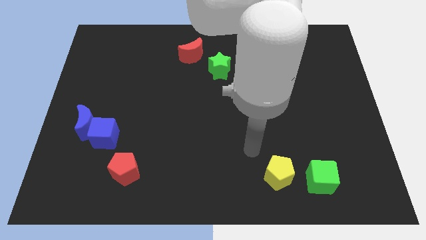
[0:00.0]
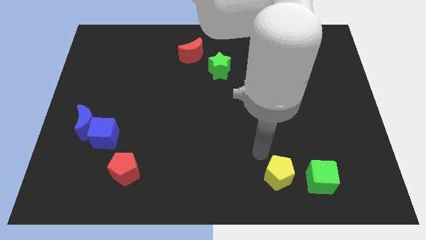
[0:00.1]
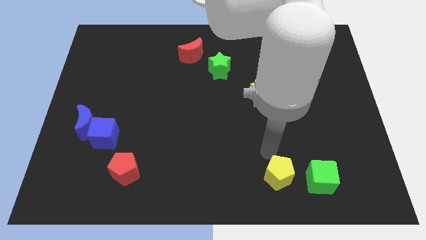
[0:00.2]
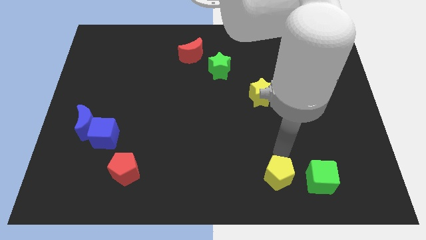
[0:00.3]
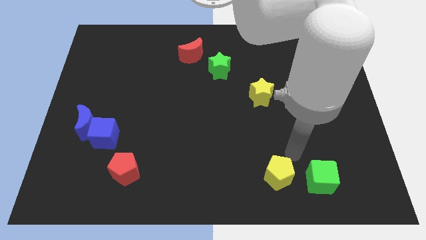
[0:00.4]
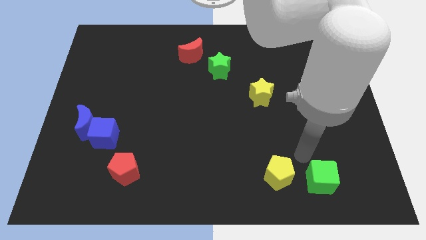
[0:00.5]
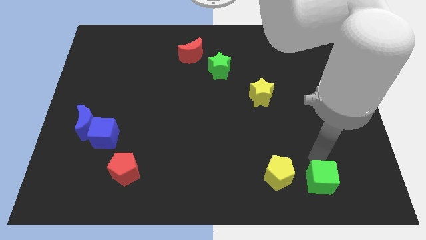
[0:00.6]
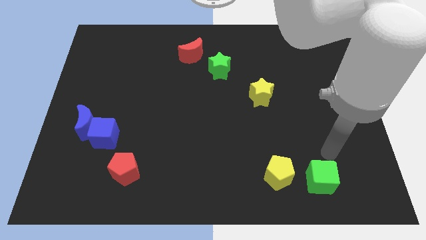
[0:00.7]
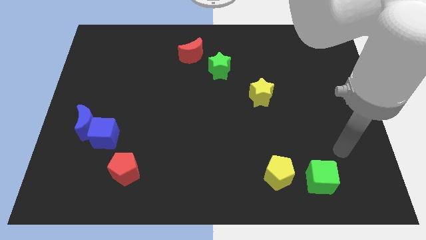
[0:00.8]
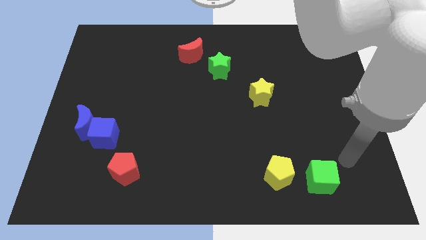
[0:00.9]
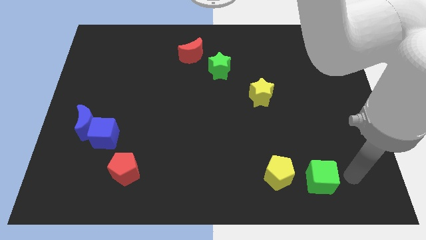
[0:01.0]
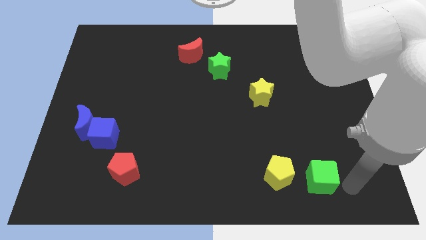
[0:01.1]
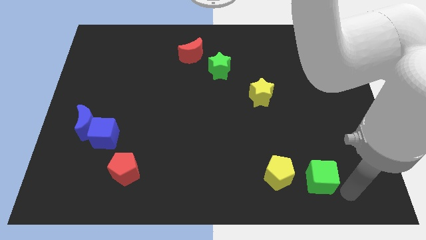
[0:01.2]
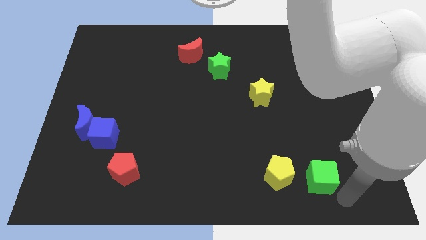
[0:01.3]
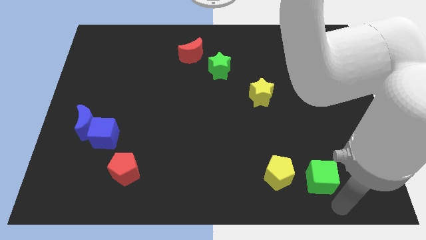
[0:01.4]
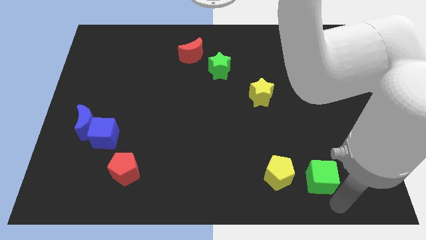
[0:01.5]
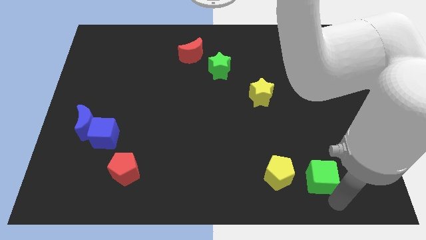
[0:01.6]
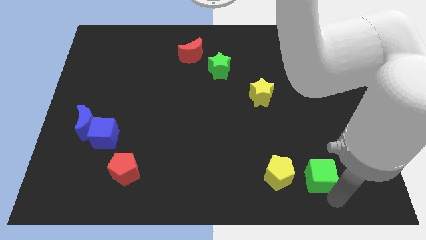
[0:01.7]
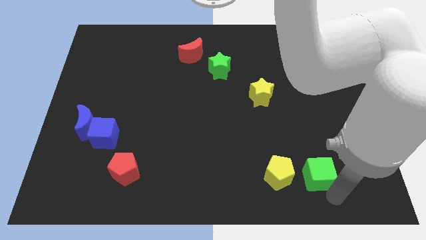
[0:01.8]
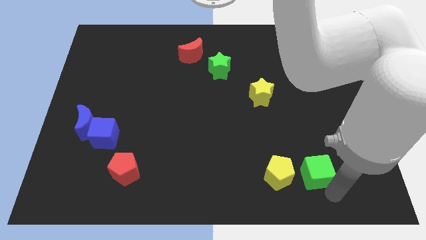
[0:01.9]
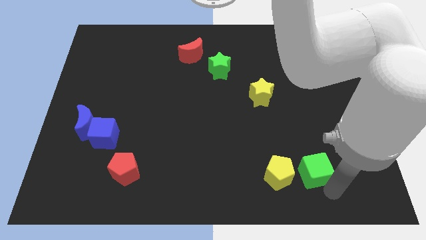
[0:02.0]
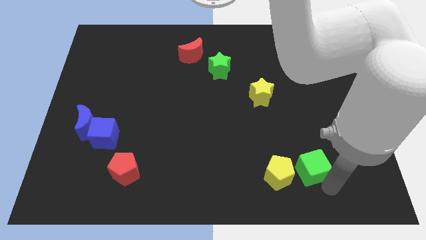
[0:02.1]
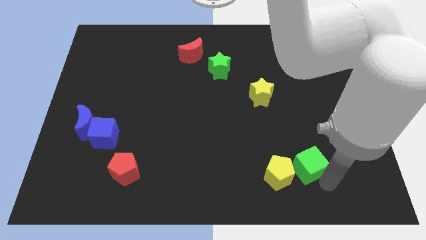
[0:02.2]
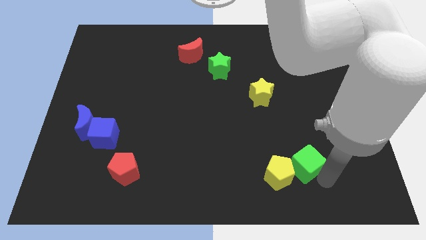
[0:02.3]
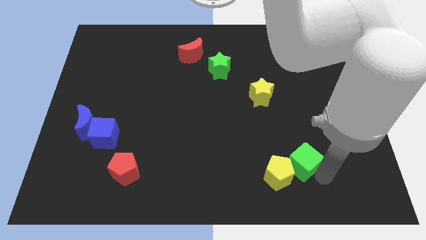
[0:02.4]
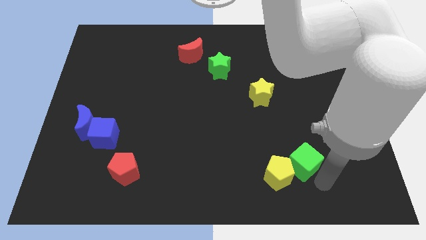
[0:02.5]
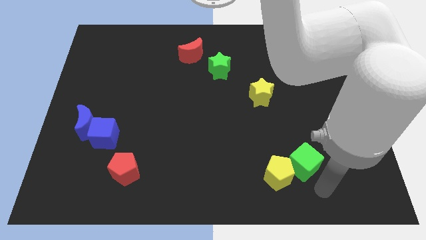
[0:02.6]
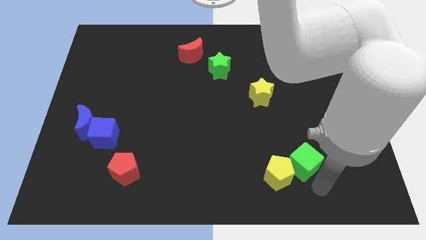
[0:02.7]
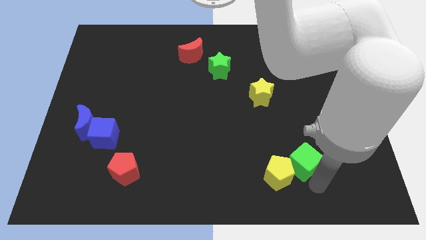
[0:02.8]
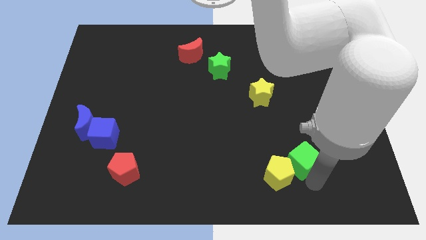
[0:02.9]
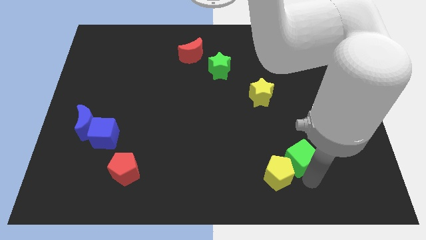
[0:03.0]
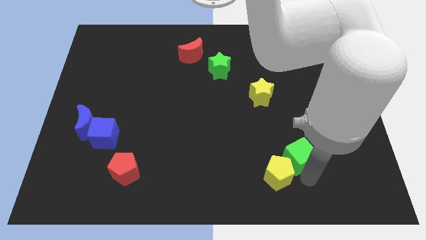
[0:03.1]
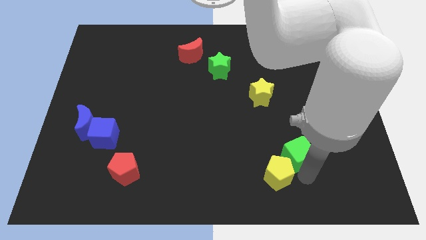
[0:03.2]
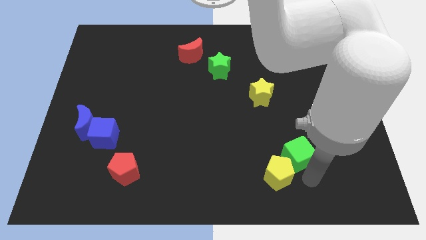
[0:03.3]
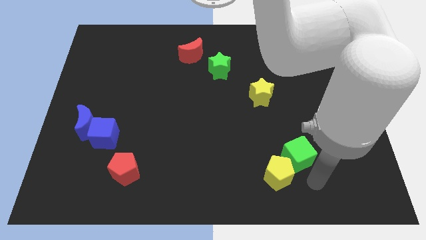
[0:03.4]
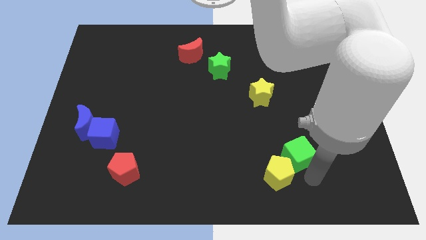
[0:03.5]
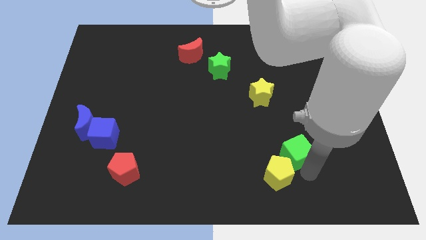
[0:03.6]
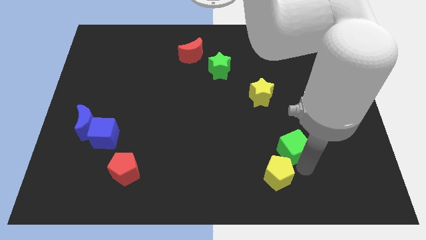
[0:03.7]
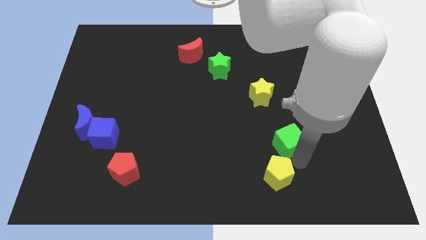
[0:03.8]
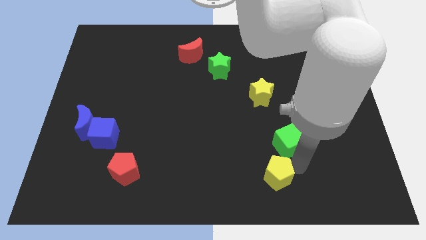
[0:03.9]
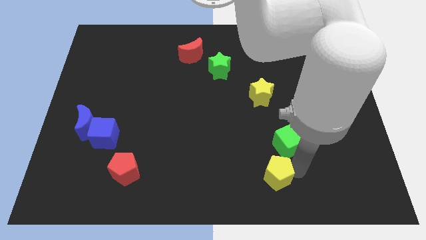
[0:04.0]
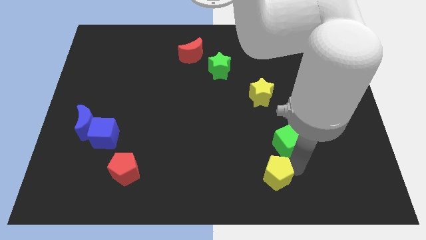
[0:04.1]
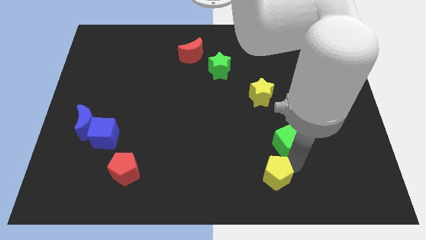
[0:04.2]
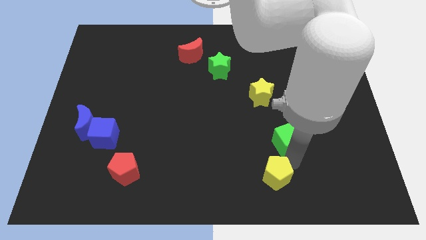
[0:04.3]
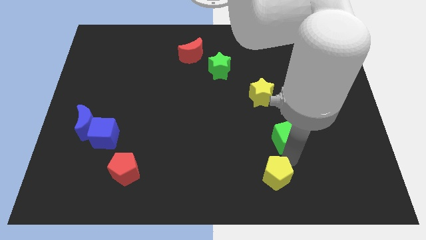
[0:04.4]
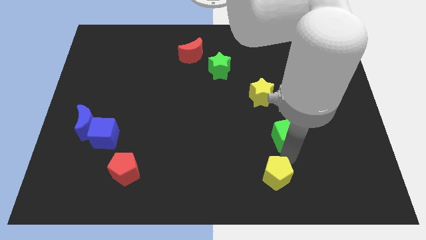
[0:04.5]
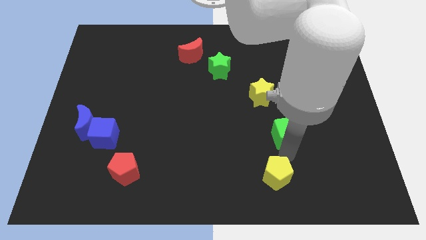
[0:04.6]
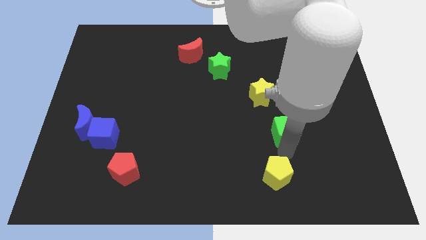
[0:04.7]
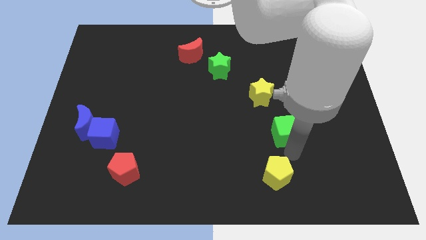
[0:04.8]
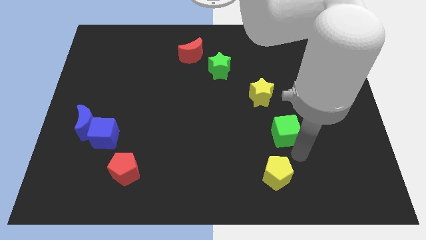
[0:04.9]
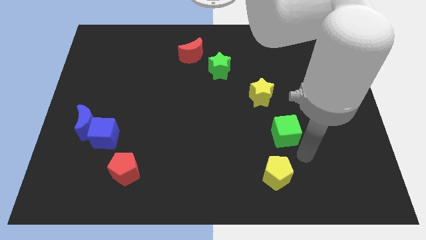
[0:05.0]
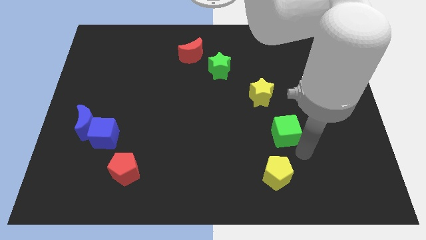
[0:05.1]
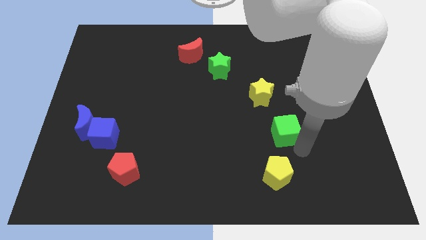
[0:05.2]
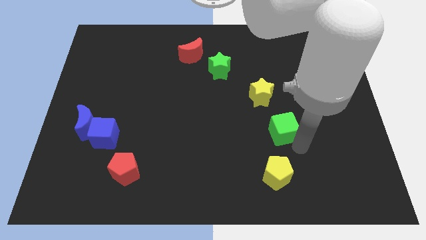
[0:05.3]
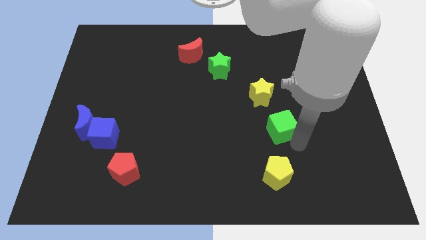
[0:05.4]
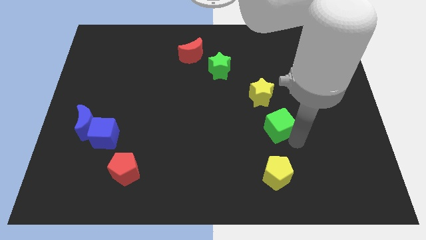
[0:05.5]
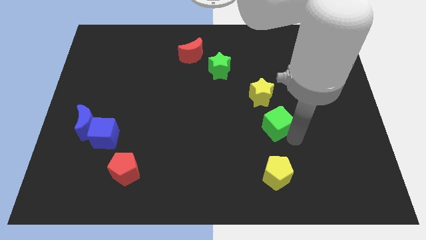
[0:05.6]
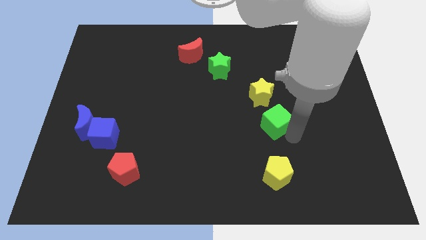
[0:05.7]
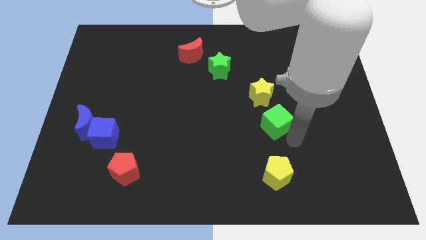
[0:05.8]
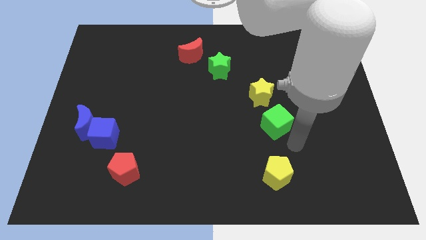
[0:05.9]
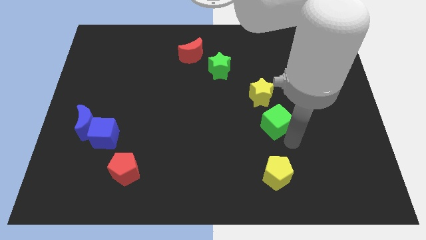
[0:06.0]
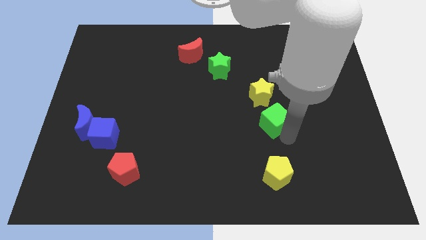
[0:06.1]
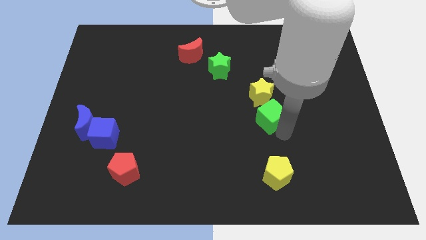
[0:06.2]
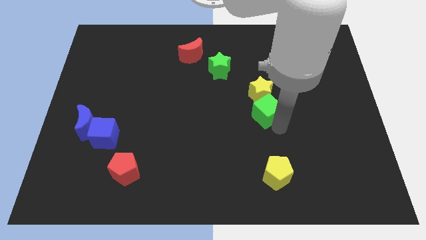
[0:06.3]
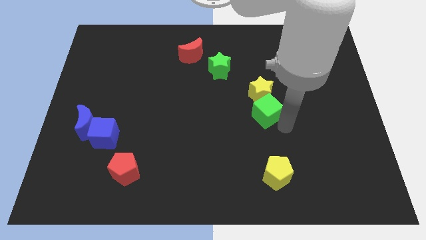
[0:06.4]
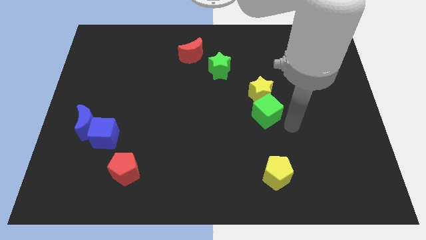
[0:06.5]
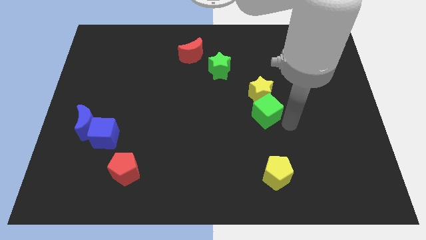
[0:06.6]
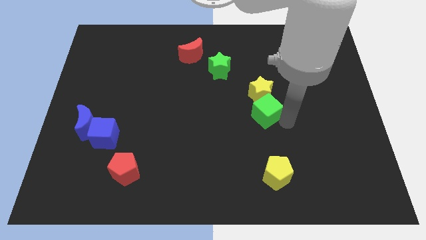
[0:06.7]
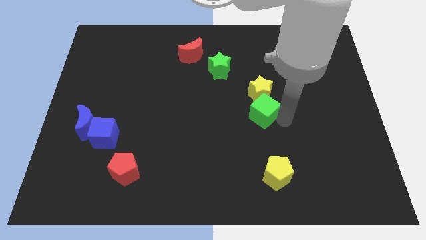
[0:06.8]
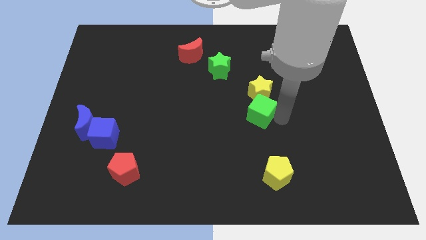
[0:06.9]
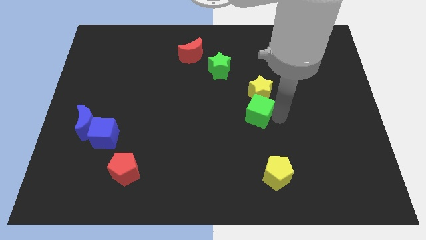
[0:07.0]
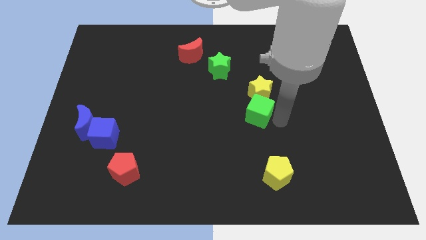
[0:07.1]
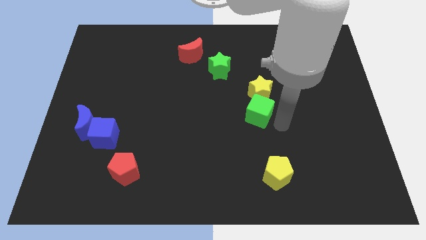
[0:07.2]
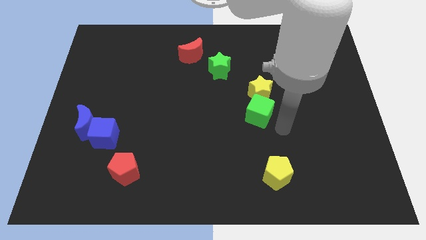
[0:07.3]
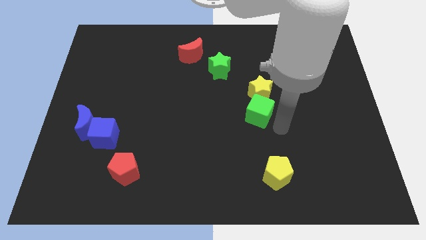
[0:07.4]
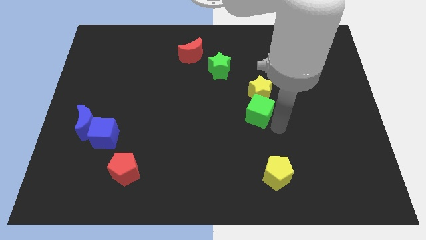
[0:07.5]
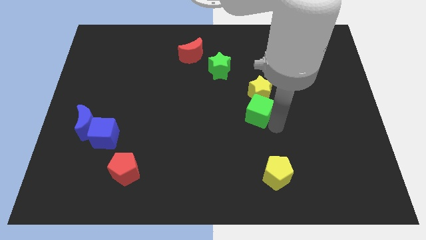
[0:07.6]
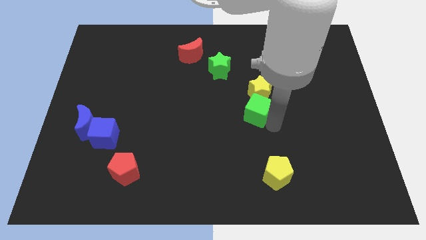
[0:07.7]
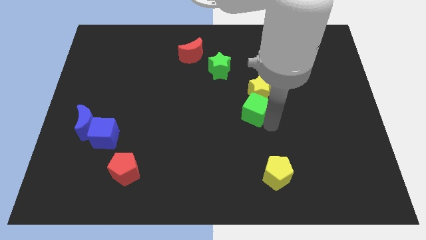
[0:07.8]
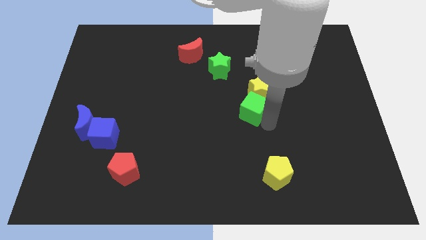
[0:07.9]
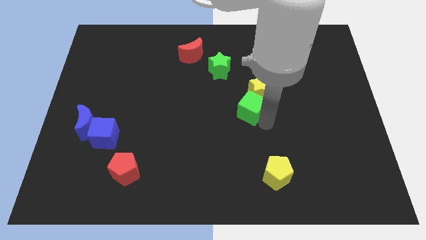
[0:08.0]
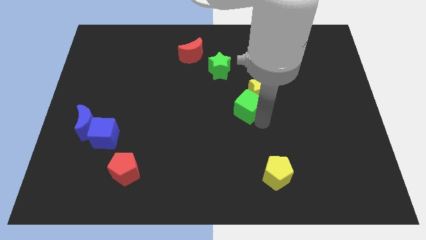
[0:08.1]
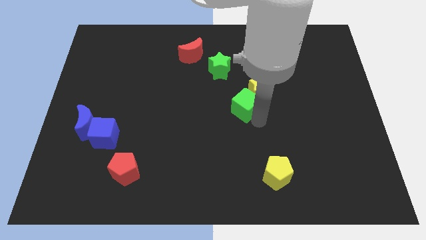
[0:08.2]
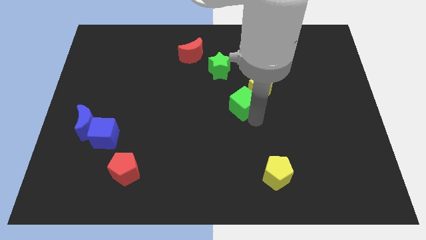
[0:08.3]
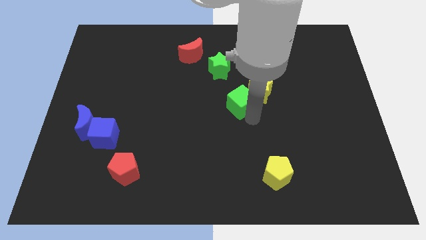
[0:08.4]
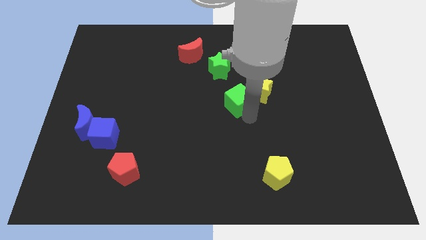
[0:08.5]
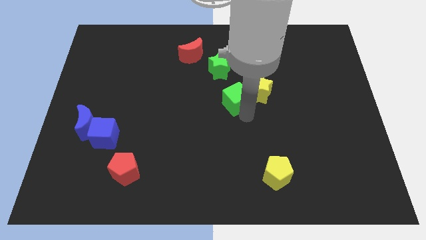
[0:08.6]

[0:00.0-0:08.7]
push the green cube to the bottom right side of the green star
